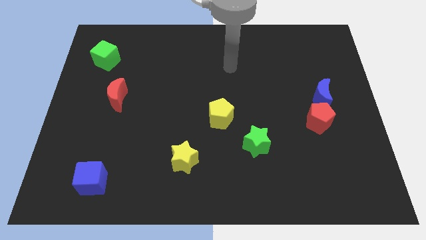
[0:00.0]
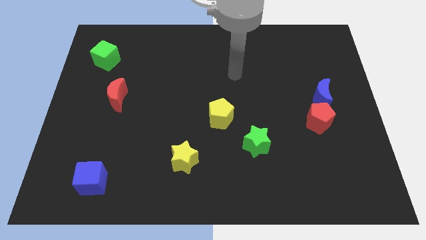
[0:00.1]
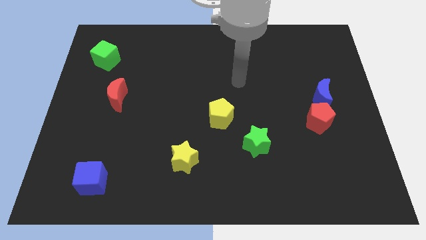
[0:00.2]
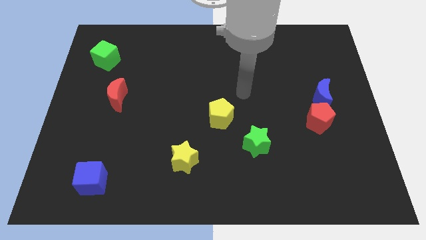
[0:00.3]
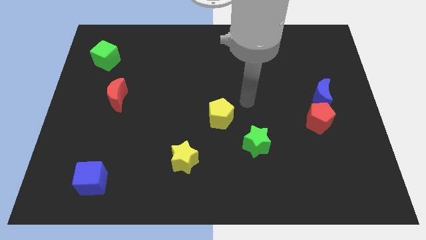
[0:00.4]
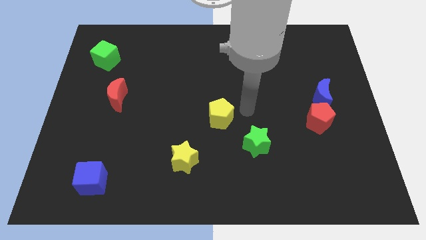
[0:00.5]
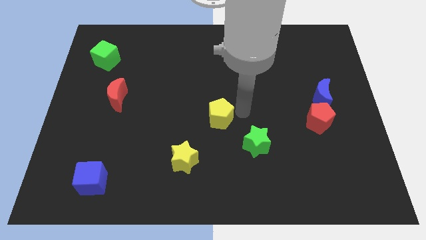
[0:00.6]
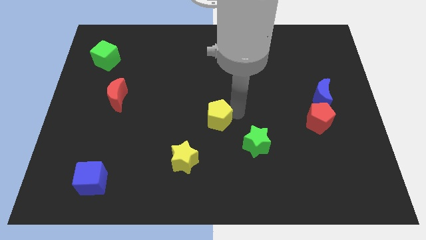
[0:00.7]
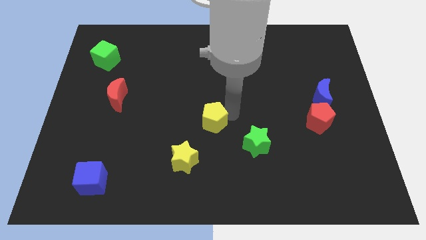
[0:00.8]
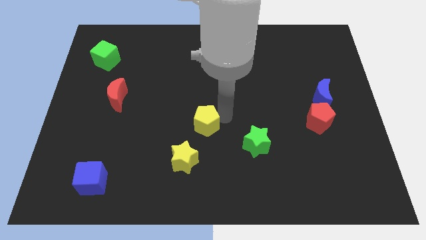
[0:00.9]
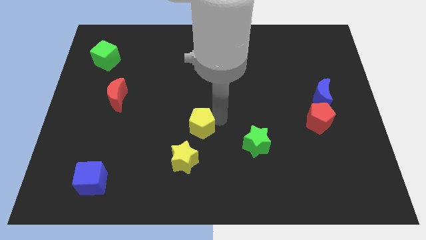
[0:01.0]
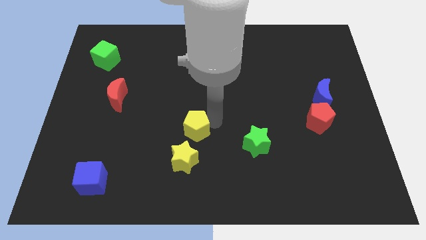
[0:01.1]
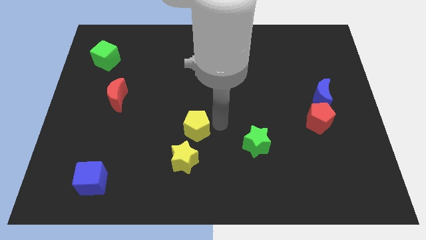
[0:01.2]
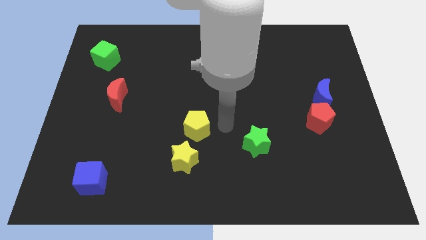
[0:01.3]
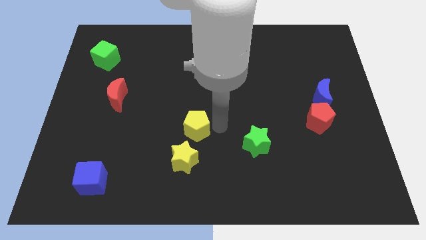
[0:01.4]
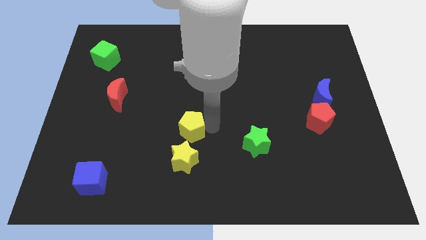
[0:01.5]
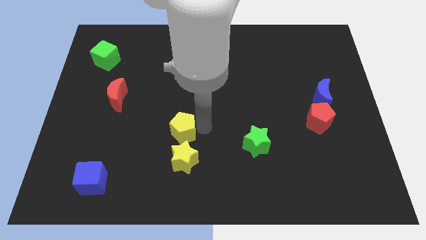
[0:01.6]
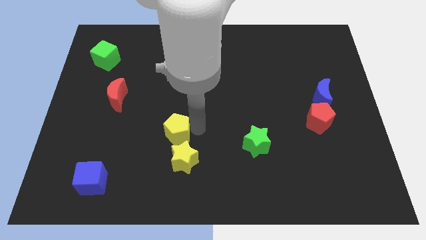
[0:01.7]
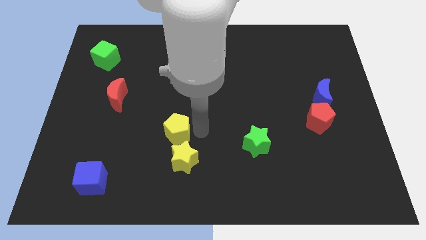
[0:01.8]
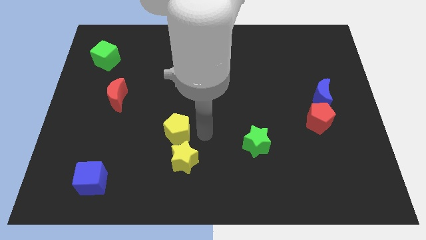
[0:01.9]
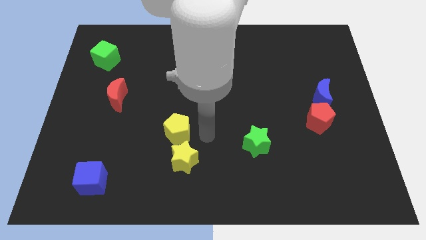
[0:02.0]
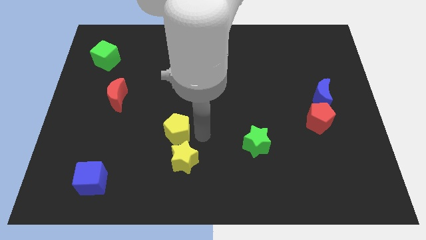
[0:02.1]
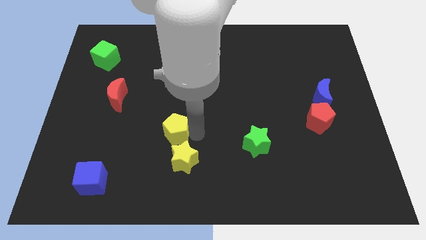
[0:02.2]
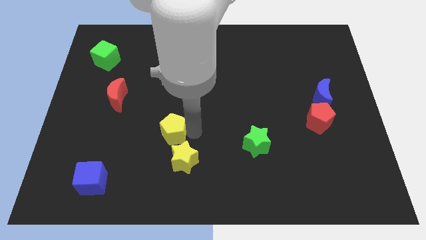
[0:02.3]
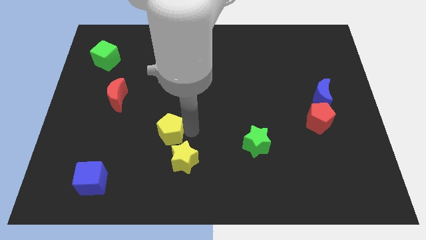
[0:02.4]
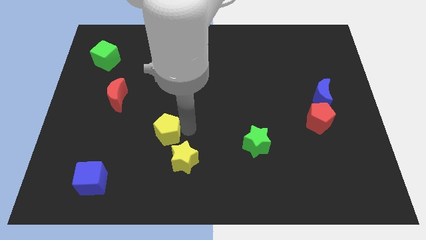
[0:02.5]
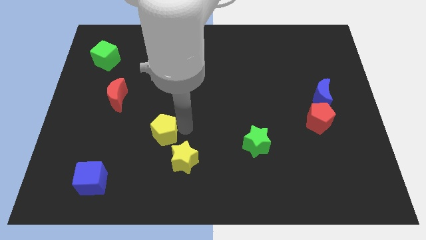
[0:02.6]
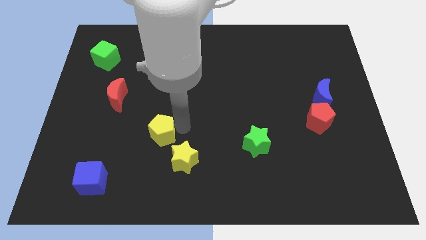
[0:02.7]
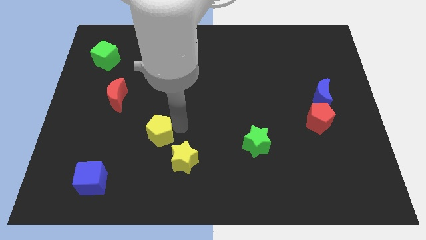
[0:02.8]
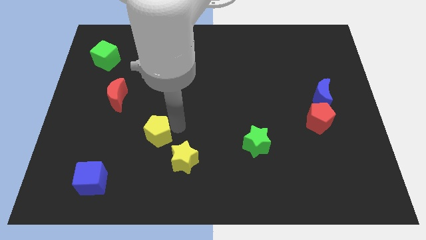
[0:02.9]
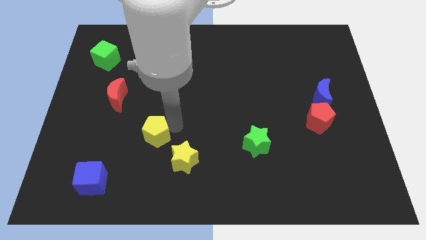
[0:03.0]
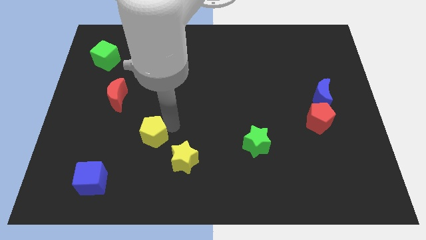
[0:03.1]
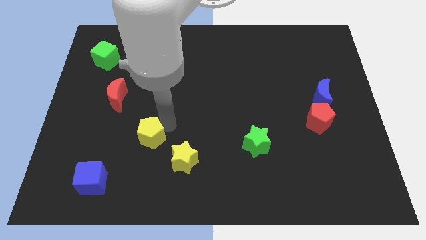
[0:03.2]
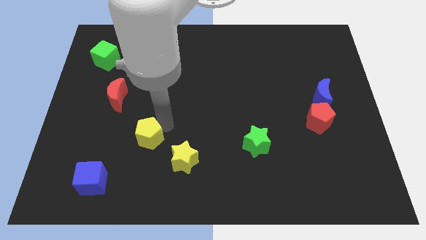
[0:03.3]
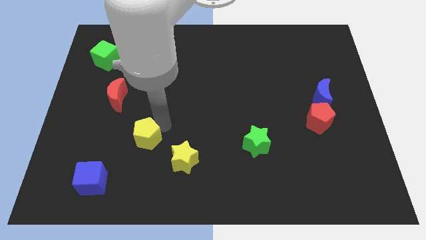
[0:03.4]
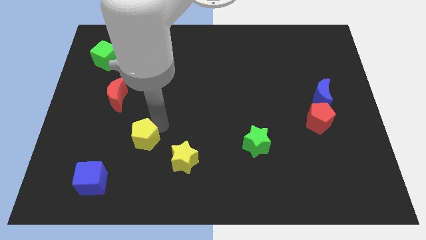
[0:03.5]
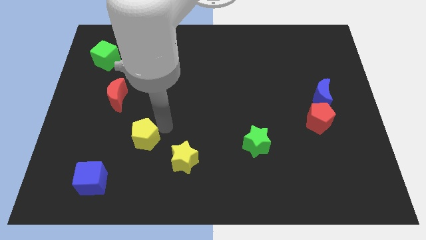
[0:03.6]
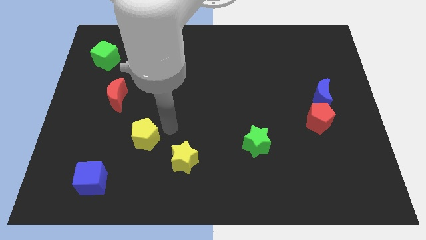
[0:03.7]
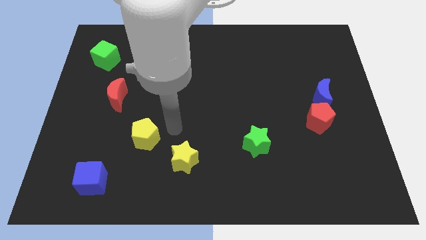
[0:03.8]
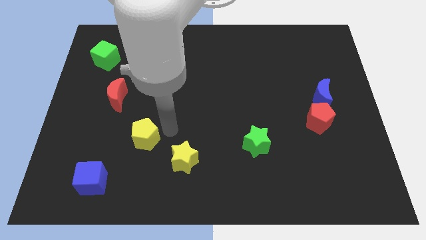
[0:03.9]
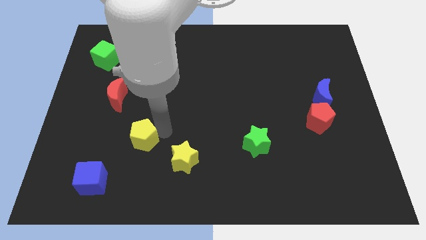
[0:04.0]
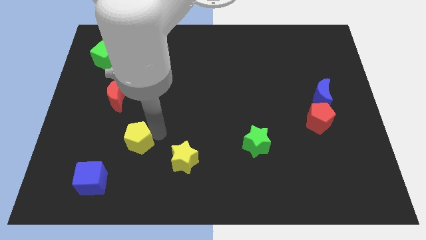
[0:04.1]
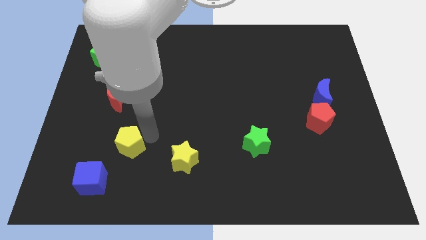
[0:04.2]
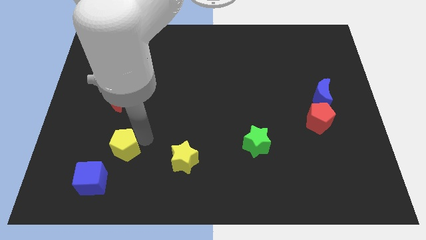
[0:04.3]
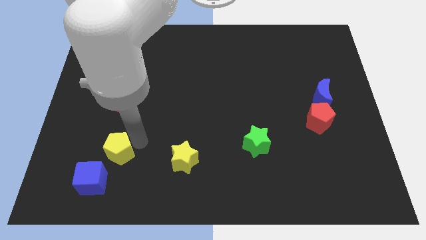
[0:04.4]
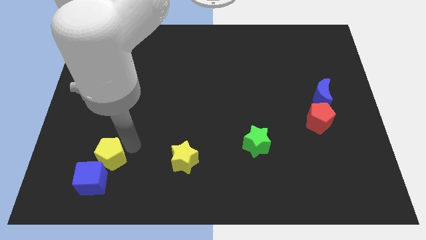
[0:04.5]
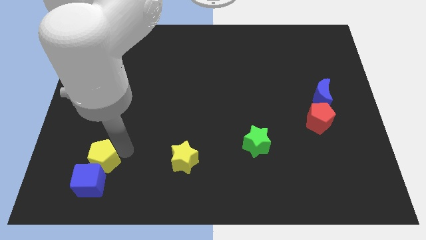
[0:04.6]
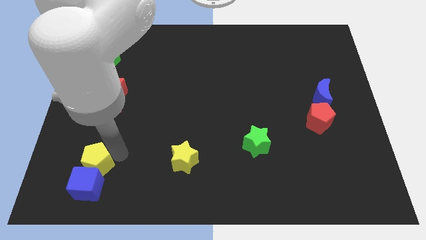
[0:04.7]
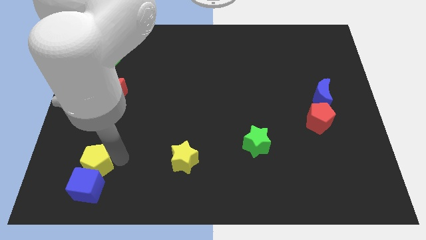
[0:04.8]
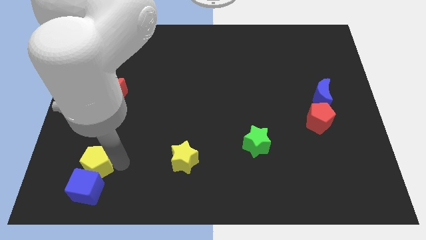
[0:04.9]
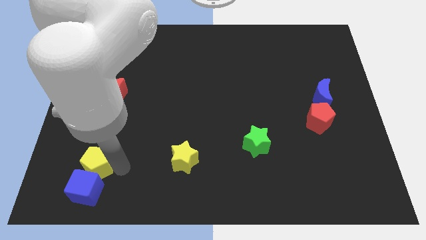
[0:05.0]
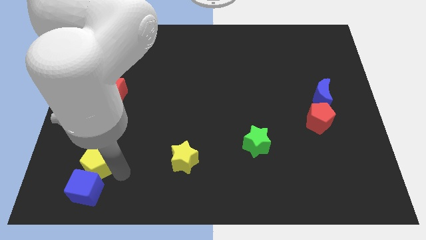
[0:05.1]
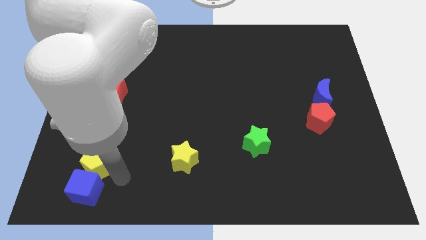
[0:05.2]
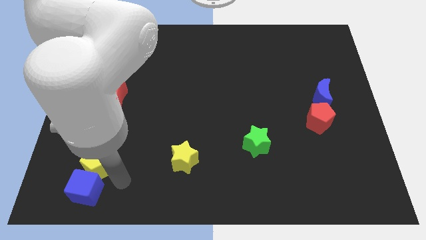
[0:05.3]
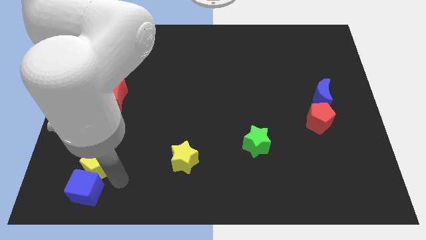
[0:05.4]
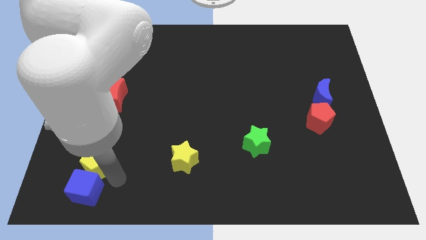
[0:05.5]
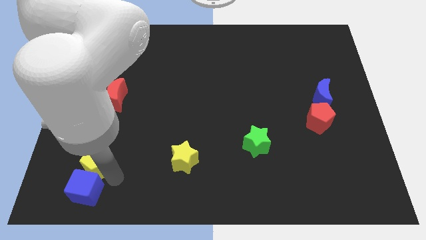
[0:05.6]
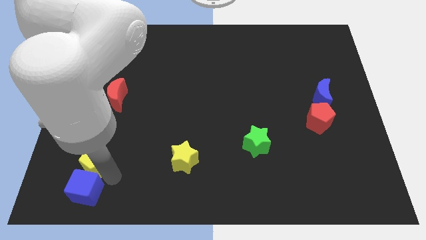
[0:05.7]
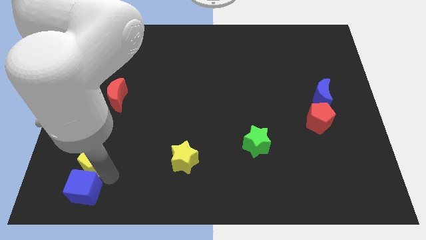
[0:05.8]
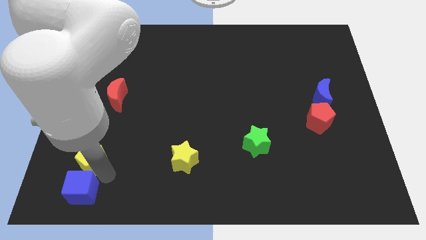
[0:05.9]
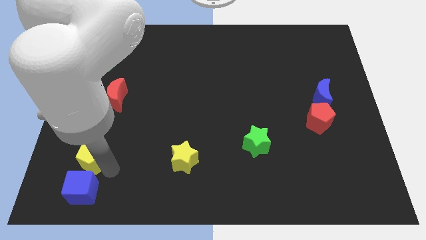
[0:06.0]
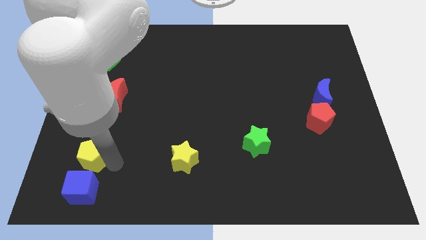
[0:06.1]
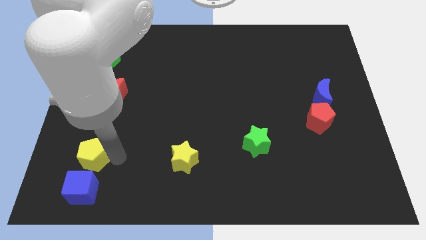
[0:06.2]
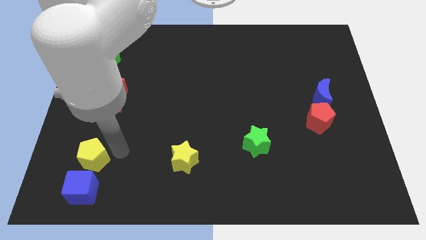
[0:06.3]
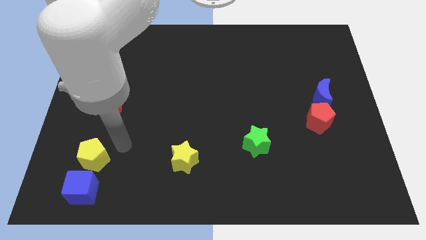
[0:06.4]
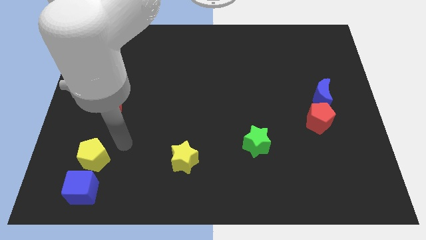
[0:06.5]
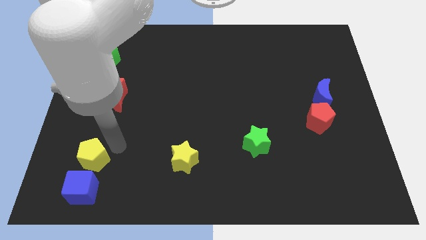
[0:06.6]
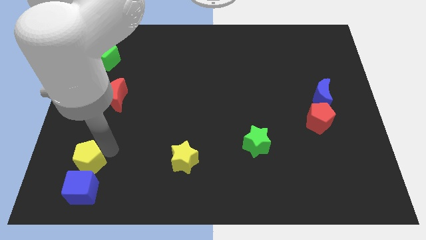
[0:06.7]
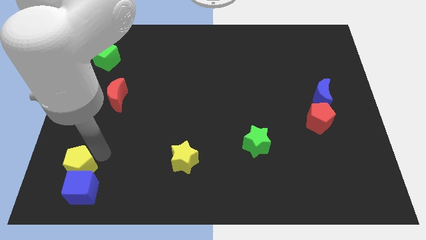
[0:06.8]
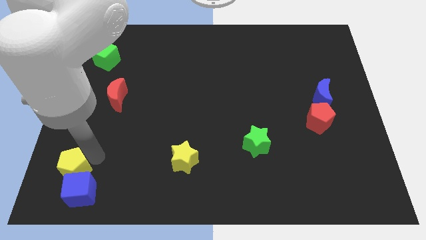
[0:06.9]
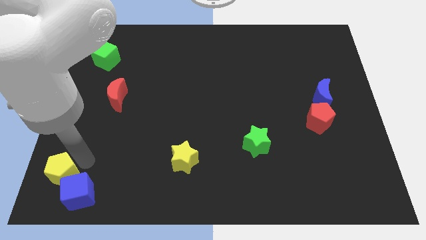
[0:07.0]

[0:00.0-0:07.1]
put the yellow pentagon to the bottom left
